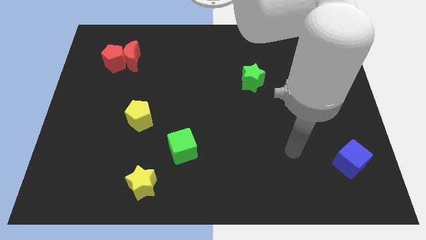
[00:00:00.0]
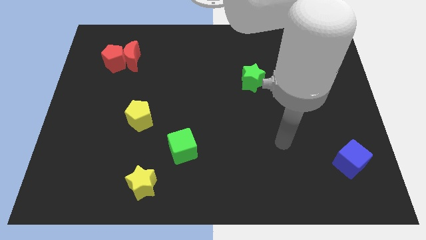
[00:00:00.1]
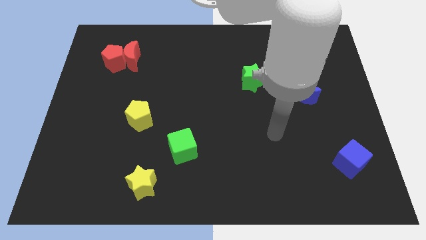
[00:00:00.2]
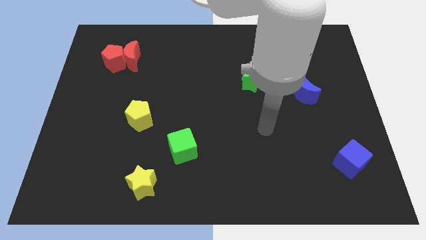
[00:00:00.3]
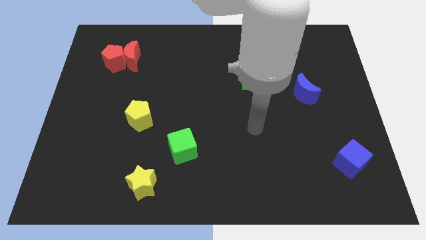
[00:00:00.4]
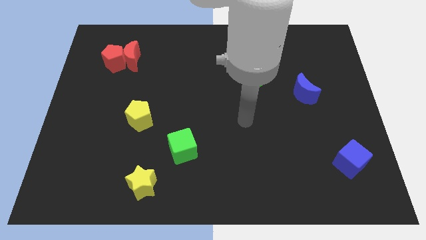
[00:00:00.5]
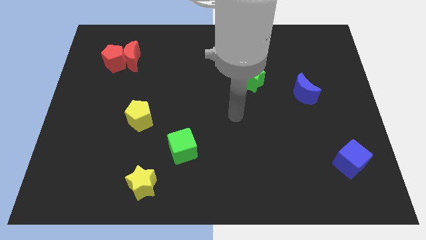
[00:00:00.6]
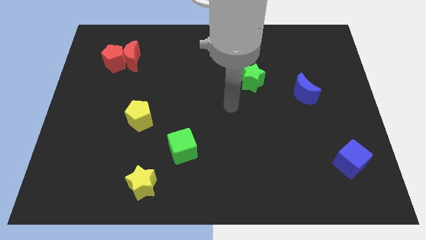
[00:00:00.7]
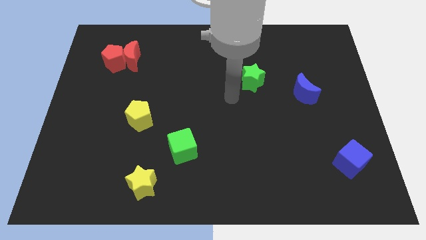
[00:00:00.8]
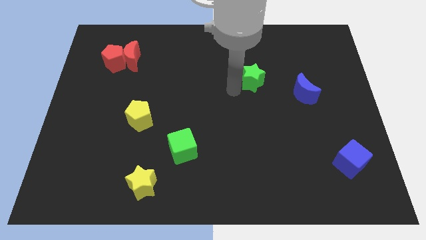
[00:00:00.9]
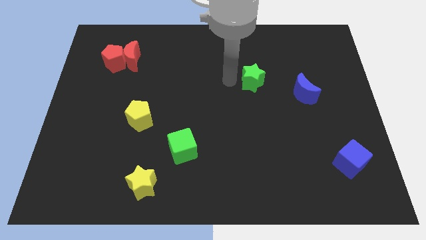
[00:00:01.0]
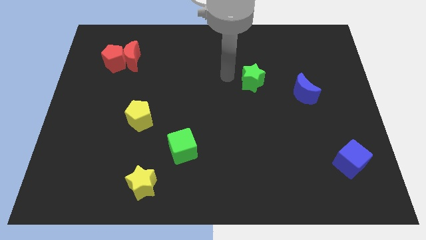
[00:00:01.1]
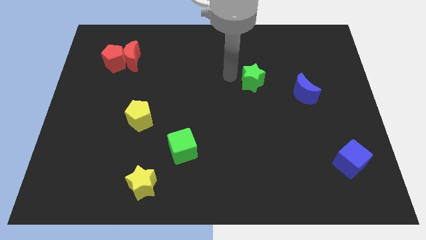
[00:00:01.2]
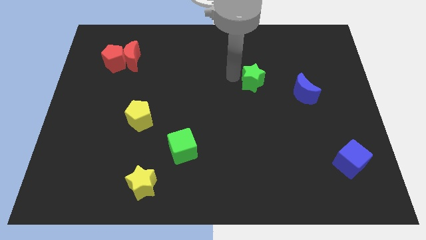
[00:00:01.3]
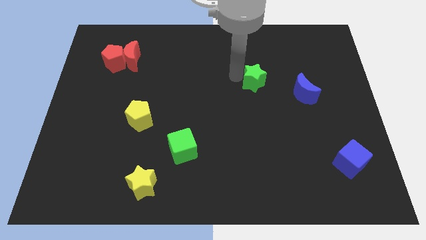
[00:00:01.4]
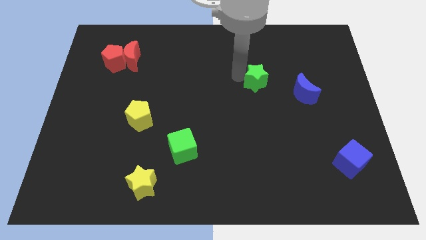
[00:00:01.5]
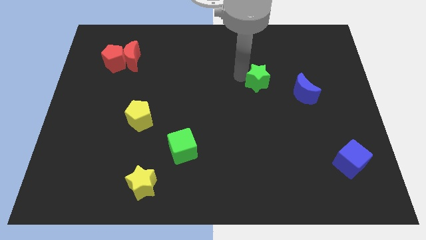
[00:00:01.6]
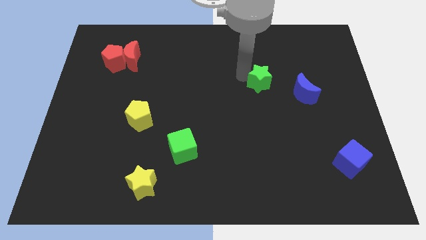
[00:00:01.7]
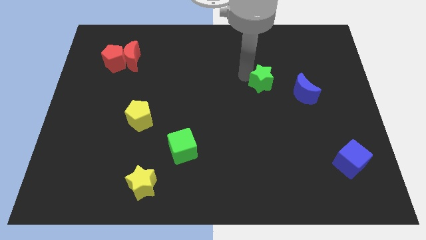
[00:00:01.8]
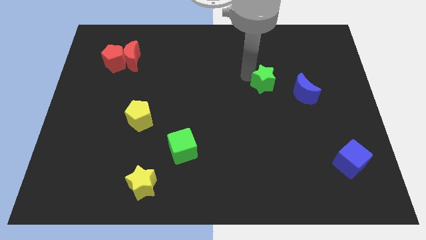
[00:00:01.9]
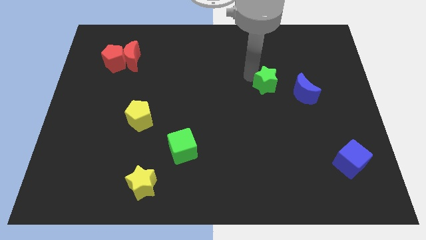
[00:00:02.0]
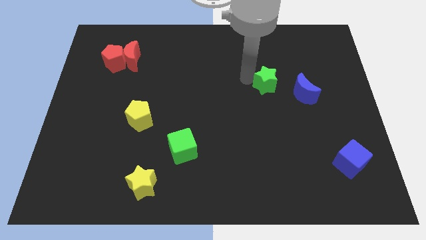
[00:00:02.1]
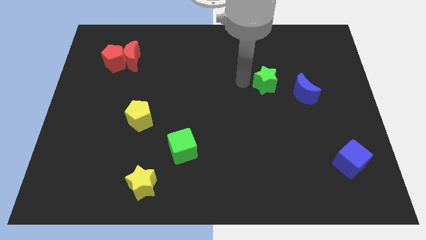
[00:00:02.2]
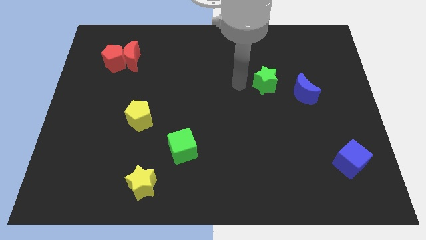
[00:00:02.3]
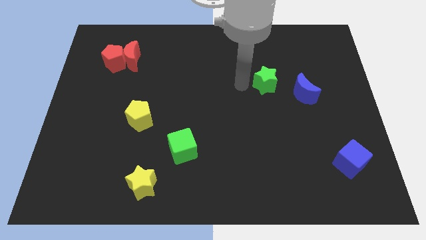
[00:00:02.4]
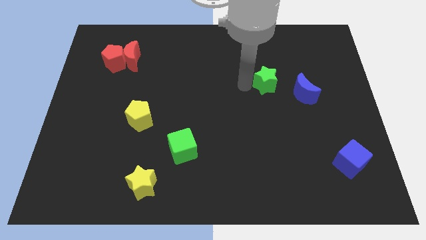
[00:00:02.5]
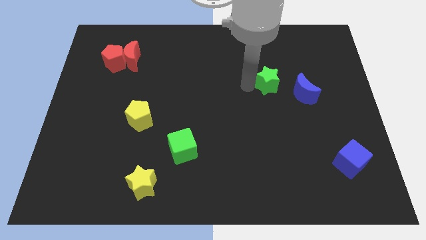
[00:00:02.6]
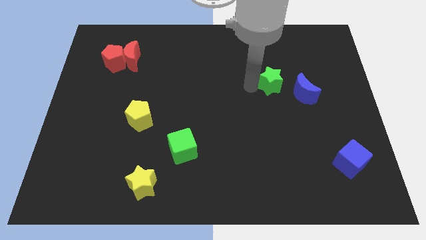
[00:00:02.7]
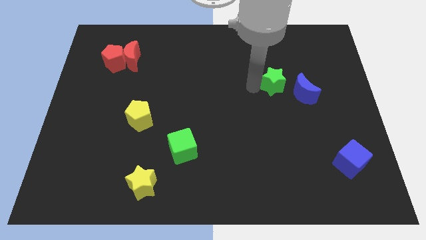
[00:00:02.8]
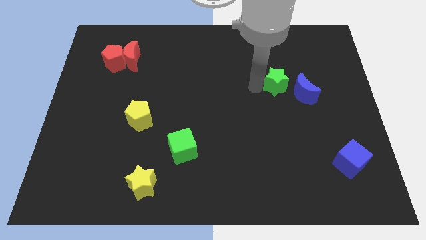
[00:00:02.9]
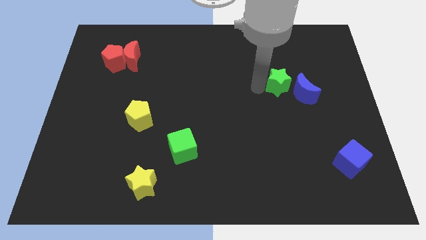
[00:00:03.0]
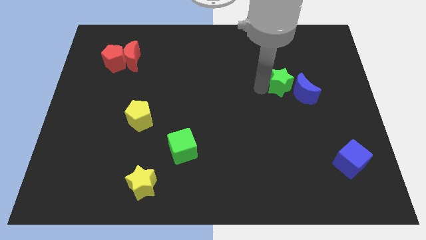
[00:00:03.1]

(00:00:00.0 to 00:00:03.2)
slide the green star to the right slightly

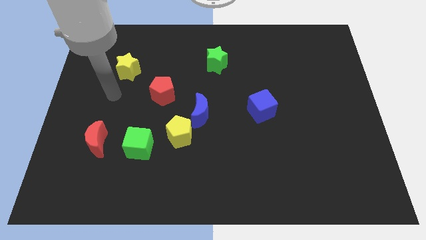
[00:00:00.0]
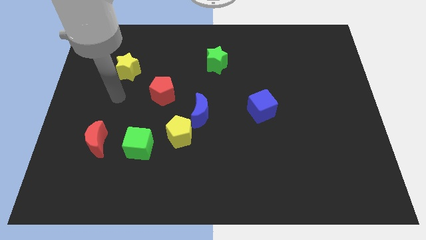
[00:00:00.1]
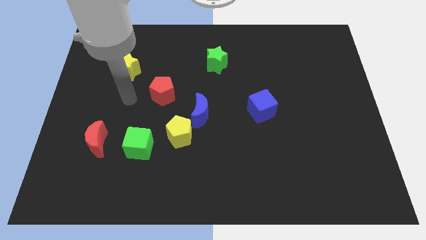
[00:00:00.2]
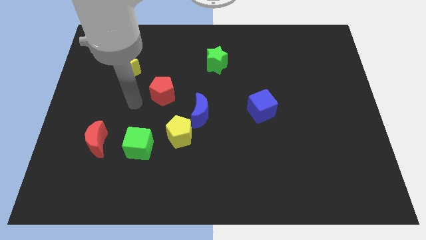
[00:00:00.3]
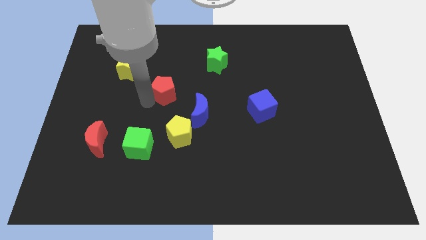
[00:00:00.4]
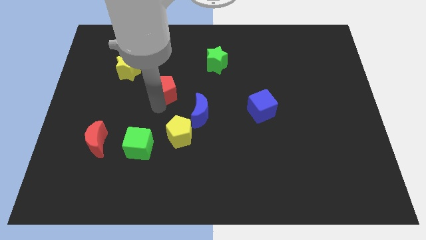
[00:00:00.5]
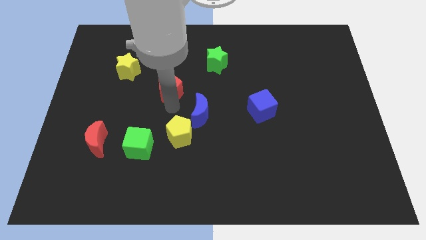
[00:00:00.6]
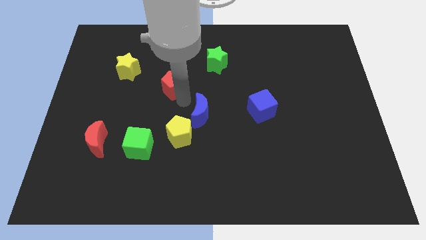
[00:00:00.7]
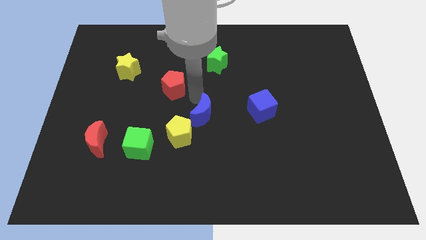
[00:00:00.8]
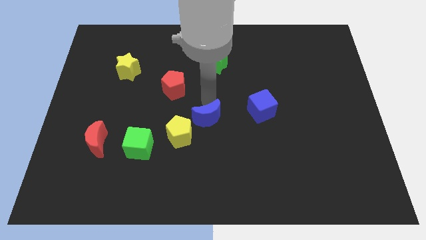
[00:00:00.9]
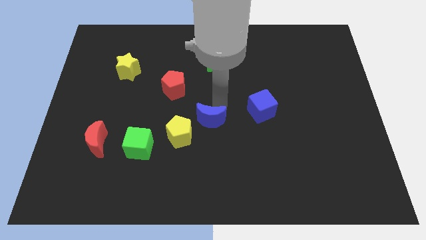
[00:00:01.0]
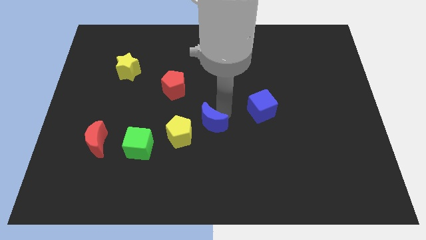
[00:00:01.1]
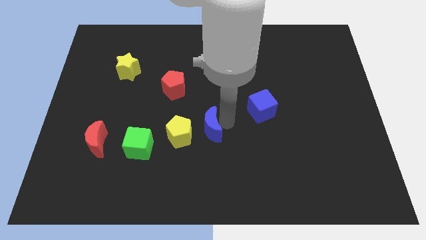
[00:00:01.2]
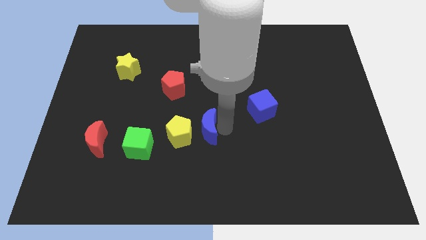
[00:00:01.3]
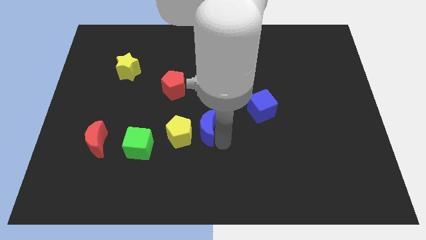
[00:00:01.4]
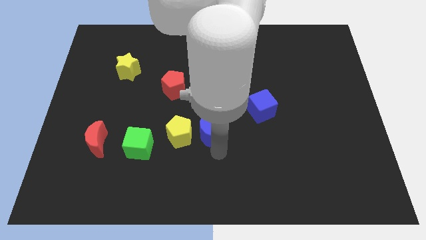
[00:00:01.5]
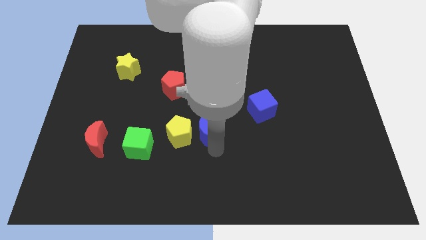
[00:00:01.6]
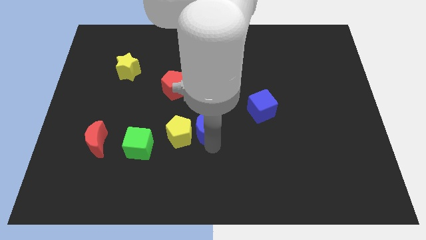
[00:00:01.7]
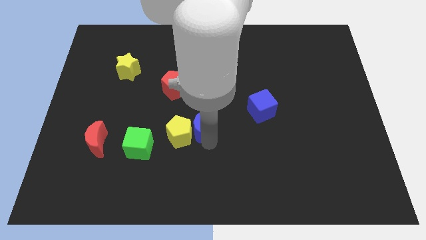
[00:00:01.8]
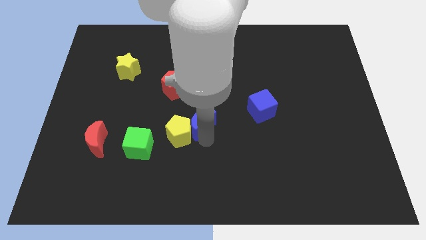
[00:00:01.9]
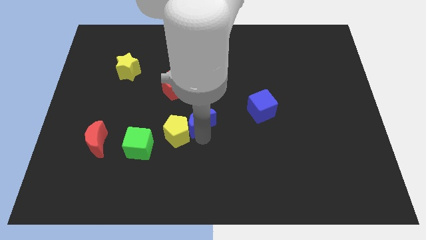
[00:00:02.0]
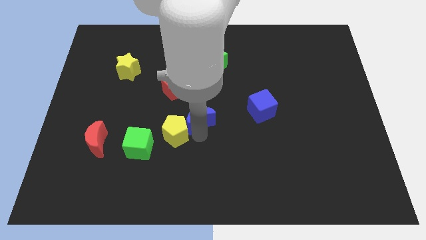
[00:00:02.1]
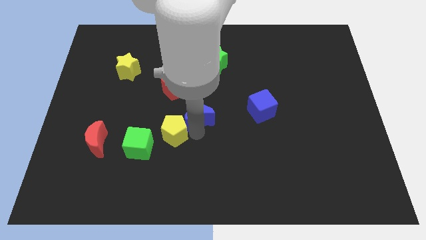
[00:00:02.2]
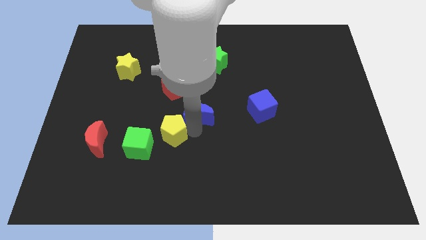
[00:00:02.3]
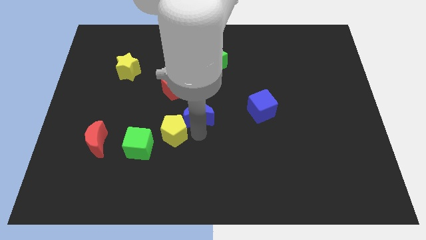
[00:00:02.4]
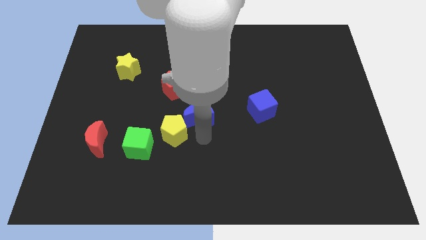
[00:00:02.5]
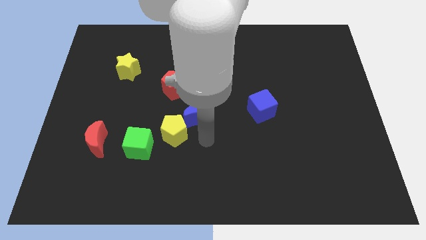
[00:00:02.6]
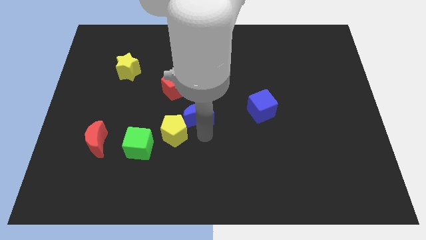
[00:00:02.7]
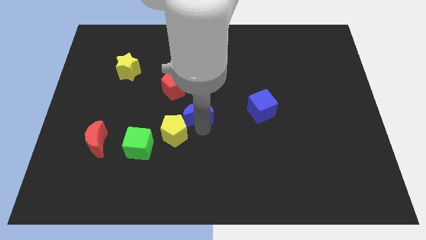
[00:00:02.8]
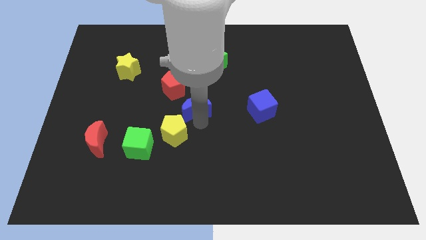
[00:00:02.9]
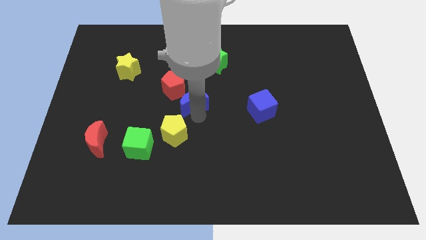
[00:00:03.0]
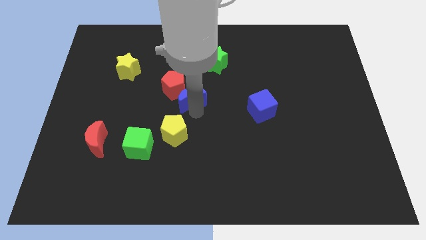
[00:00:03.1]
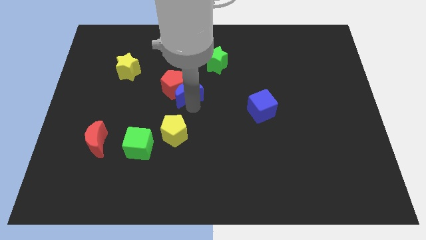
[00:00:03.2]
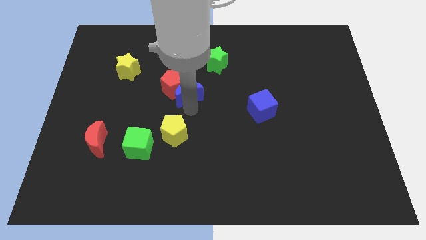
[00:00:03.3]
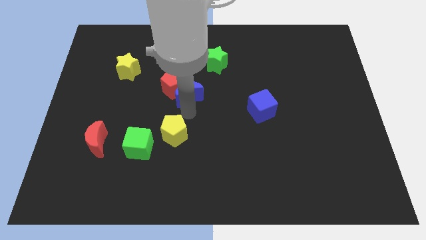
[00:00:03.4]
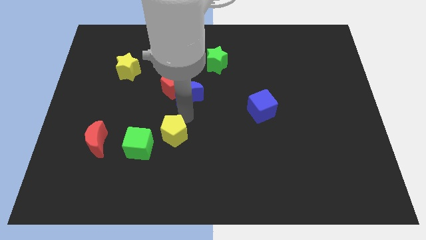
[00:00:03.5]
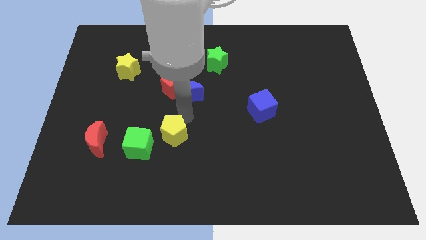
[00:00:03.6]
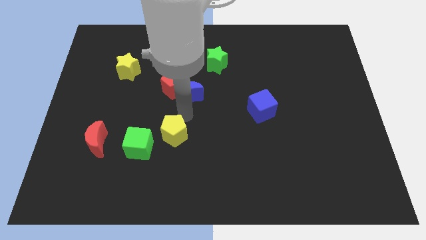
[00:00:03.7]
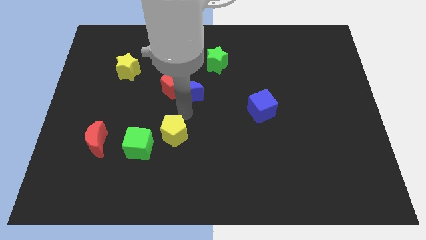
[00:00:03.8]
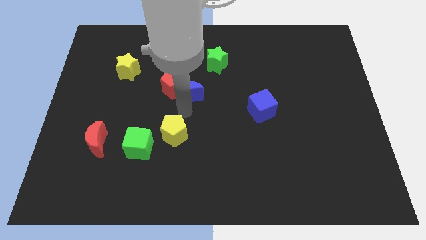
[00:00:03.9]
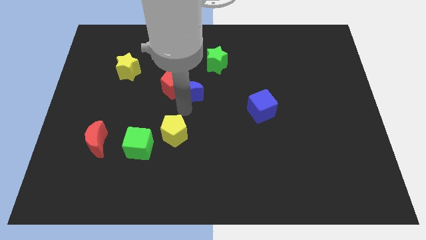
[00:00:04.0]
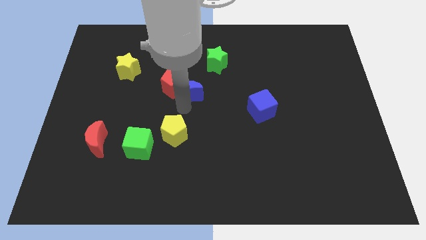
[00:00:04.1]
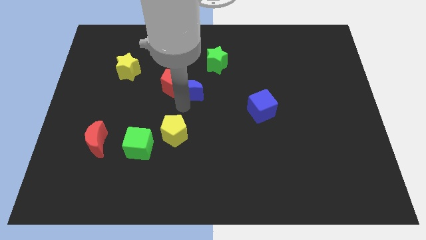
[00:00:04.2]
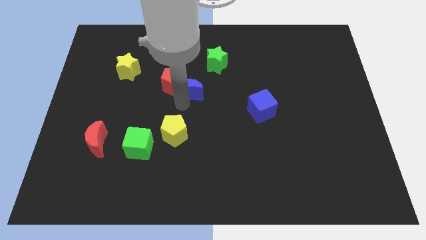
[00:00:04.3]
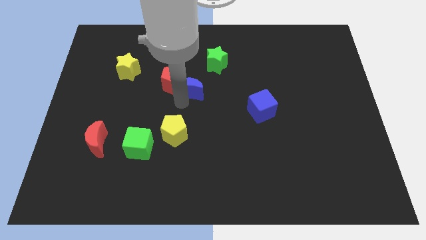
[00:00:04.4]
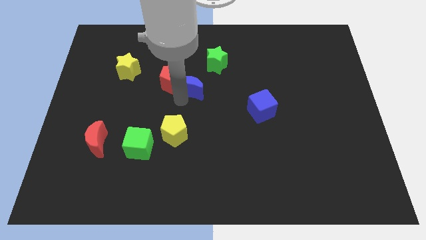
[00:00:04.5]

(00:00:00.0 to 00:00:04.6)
move the blue moon a bit upwards

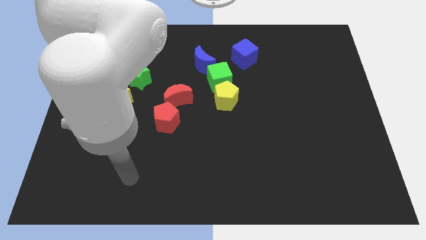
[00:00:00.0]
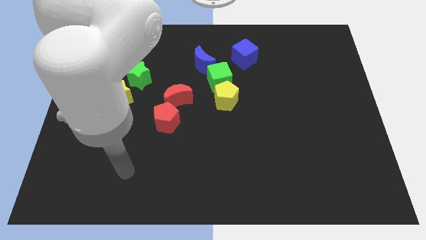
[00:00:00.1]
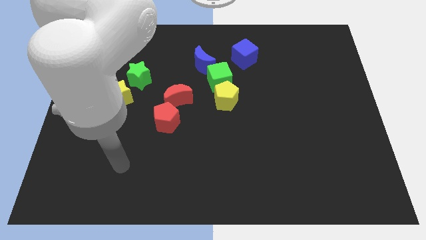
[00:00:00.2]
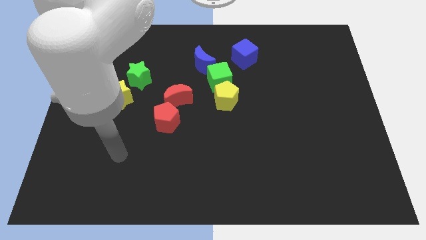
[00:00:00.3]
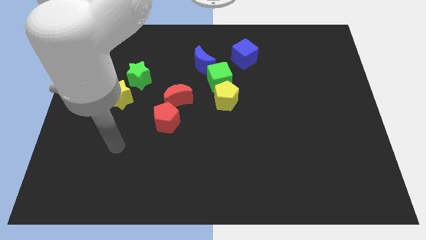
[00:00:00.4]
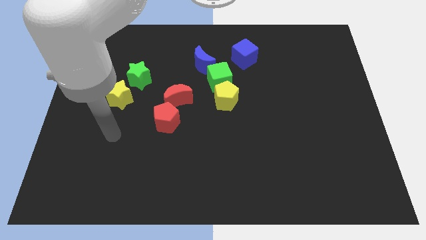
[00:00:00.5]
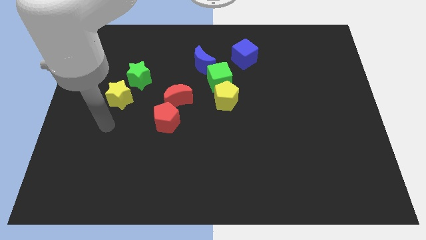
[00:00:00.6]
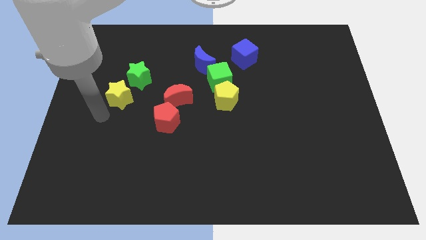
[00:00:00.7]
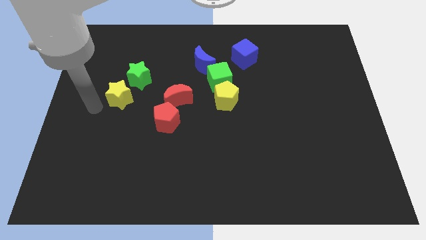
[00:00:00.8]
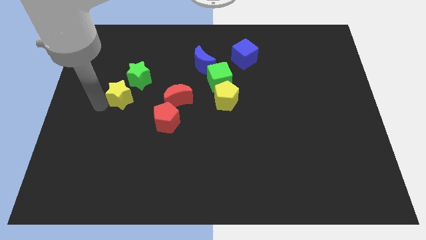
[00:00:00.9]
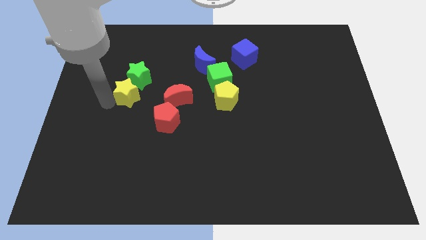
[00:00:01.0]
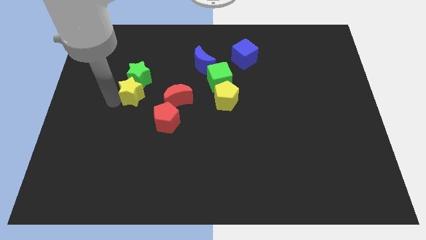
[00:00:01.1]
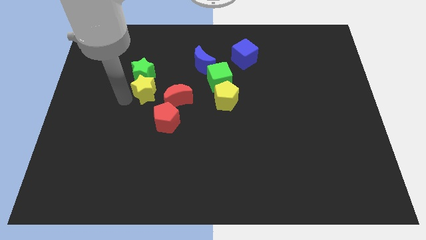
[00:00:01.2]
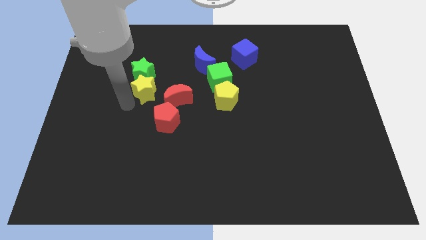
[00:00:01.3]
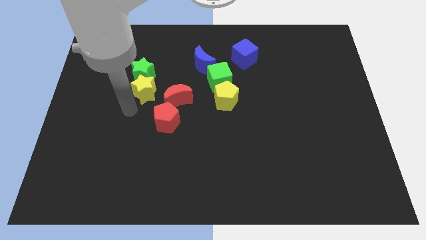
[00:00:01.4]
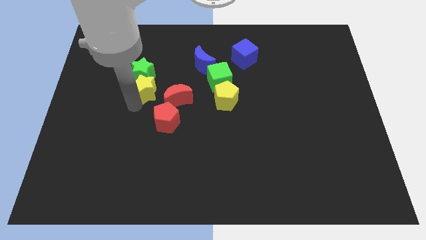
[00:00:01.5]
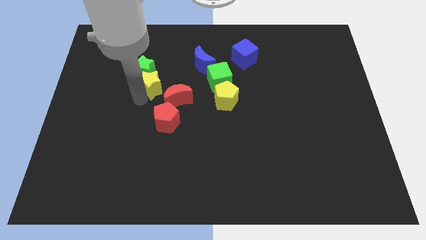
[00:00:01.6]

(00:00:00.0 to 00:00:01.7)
move the yellow star to the right slightly
